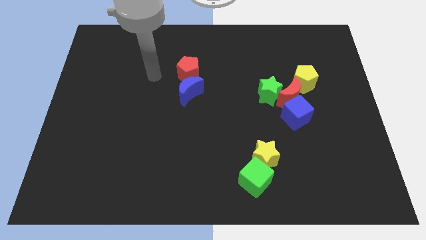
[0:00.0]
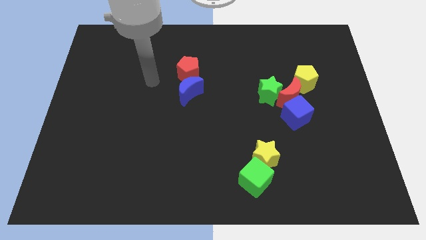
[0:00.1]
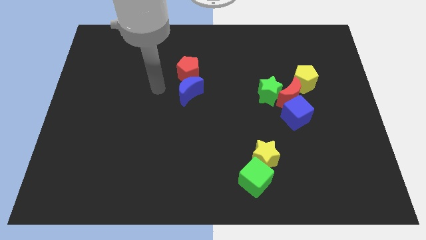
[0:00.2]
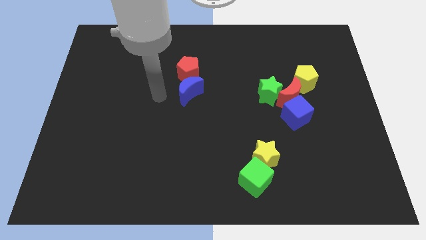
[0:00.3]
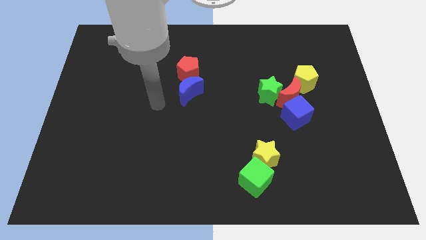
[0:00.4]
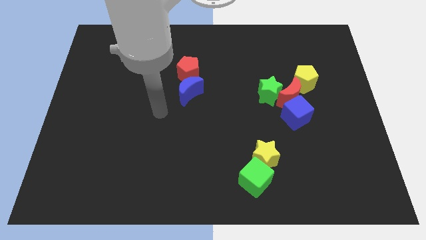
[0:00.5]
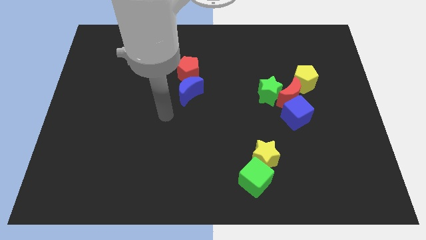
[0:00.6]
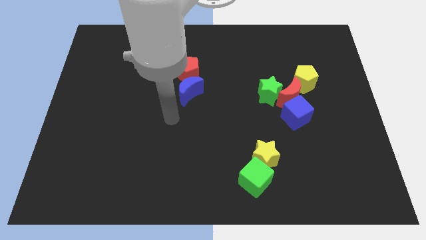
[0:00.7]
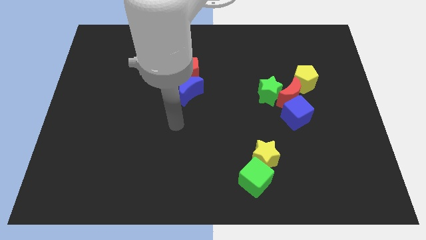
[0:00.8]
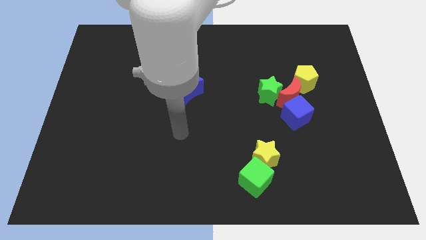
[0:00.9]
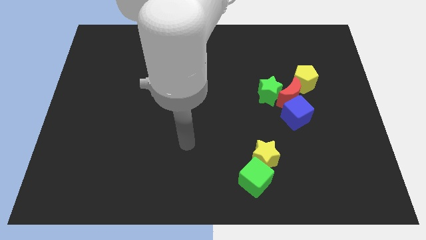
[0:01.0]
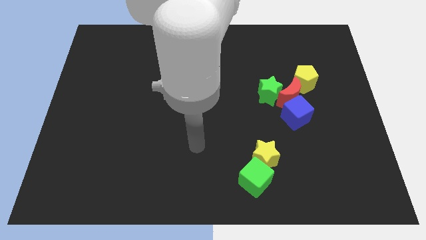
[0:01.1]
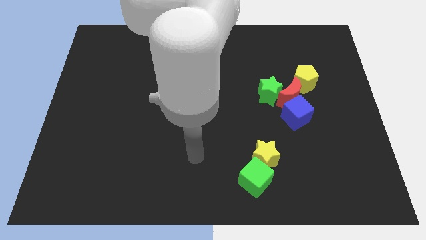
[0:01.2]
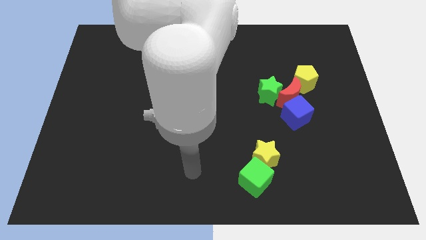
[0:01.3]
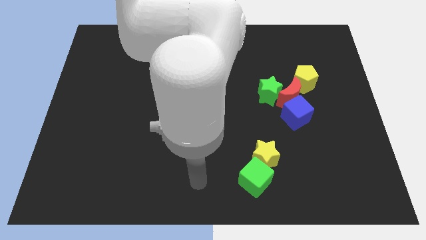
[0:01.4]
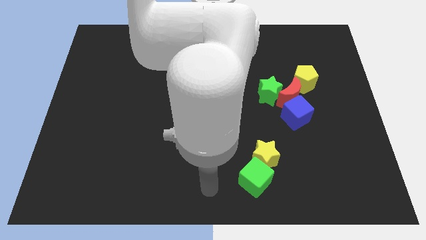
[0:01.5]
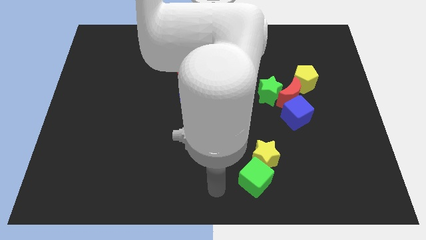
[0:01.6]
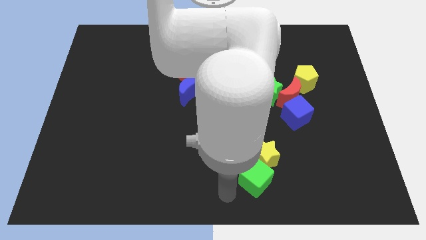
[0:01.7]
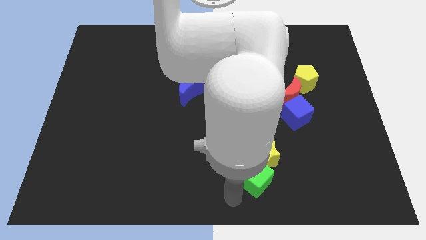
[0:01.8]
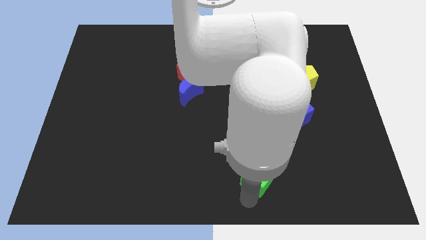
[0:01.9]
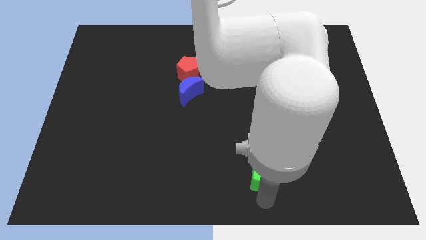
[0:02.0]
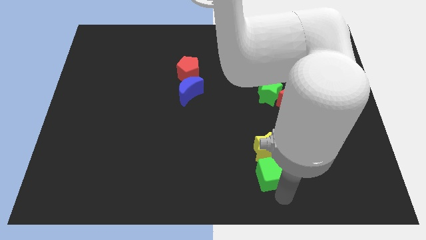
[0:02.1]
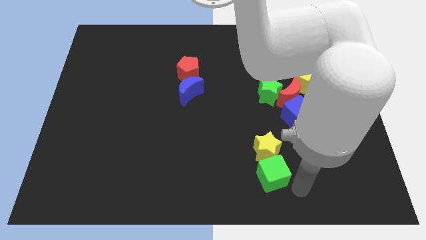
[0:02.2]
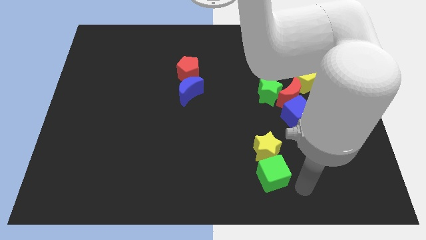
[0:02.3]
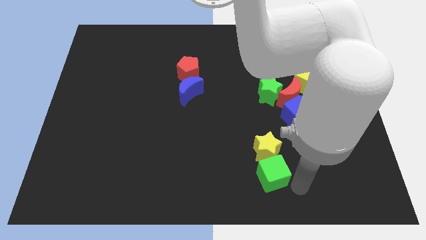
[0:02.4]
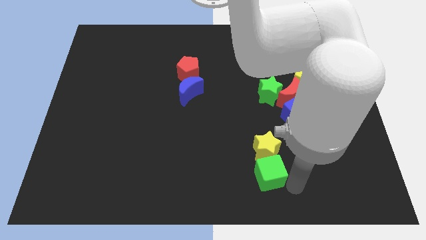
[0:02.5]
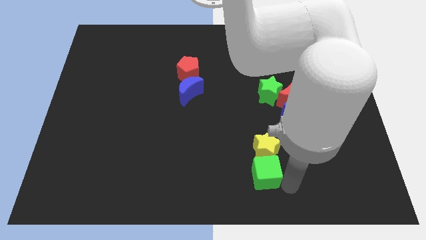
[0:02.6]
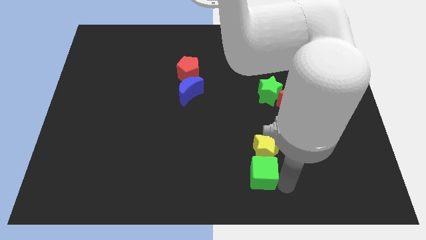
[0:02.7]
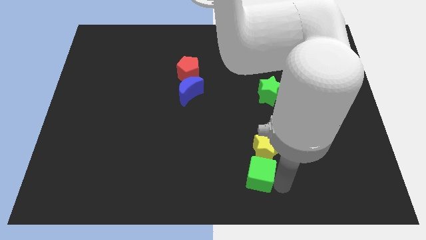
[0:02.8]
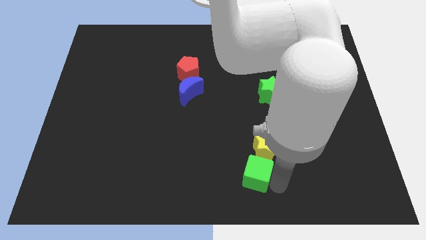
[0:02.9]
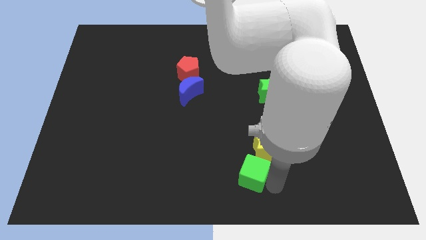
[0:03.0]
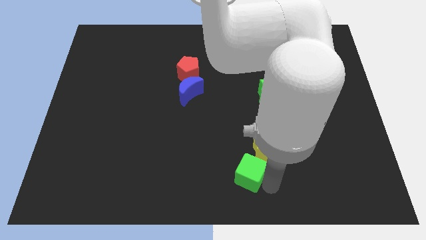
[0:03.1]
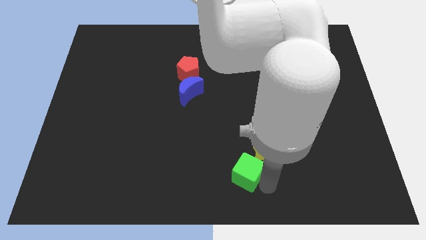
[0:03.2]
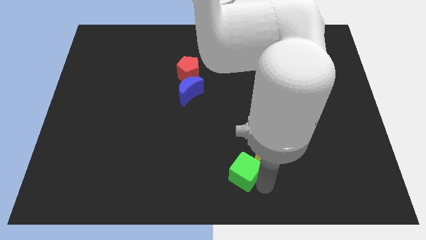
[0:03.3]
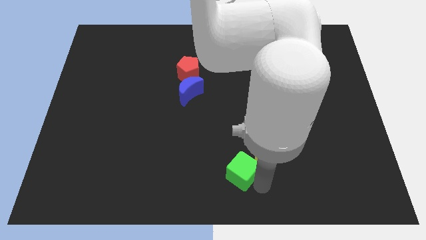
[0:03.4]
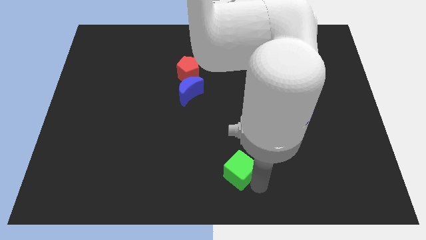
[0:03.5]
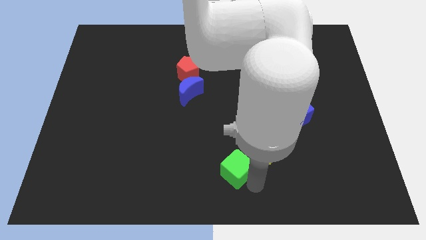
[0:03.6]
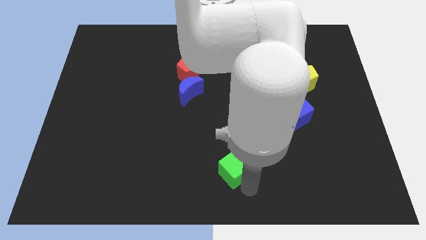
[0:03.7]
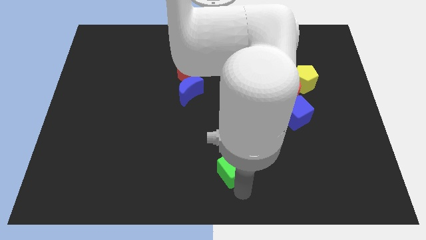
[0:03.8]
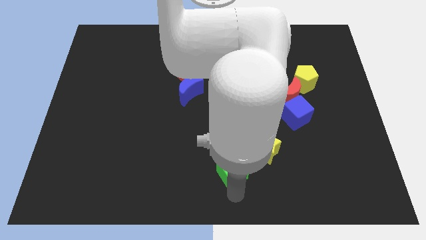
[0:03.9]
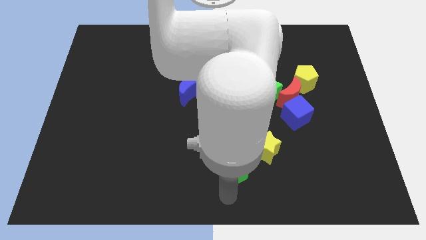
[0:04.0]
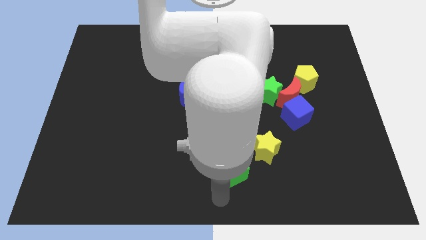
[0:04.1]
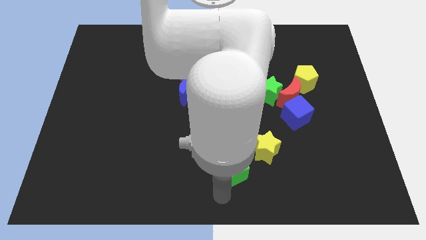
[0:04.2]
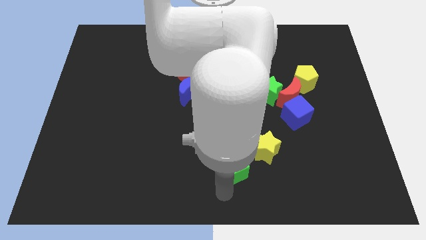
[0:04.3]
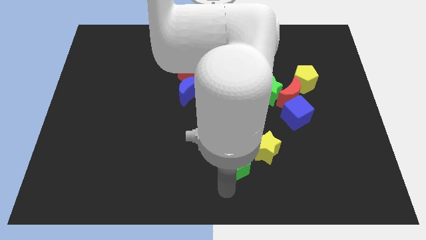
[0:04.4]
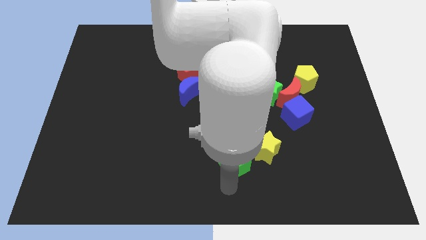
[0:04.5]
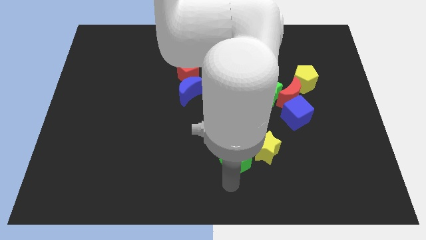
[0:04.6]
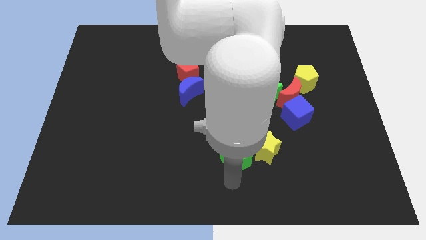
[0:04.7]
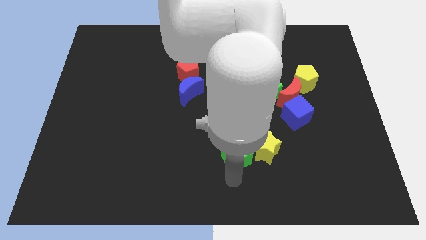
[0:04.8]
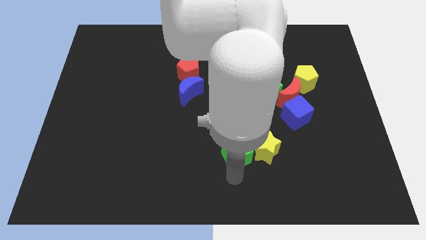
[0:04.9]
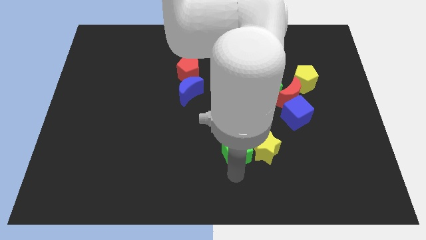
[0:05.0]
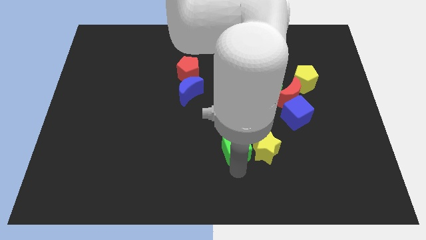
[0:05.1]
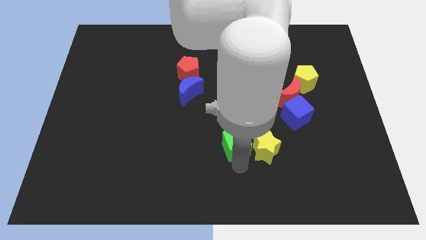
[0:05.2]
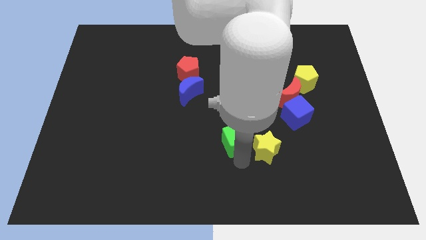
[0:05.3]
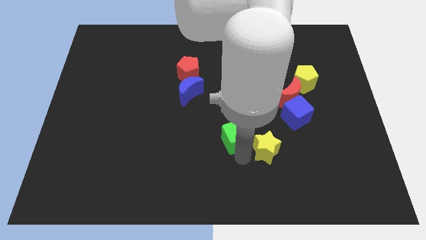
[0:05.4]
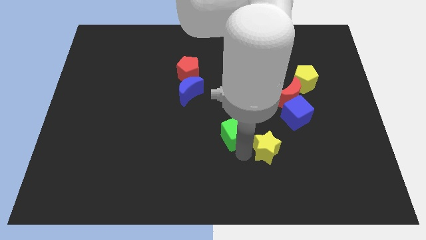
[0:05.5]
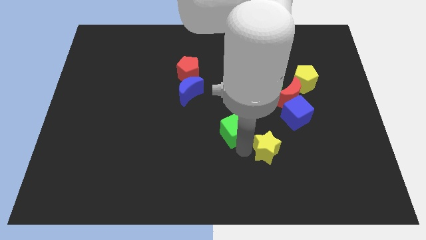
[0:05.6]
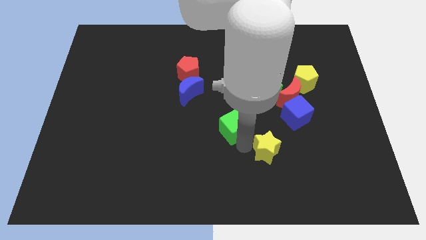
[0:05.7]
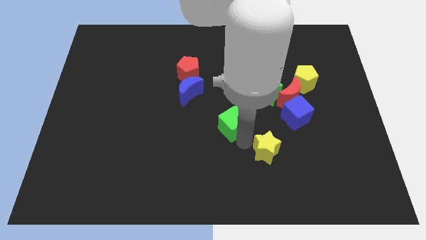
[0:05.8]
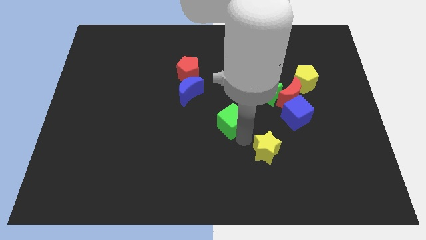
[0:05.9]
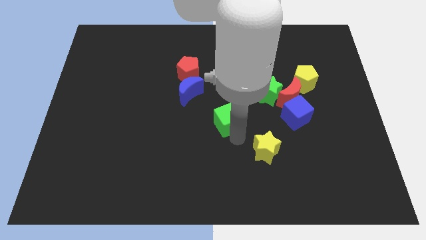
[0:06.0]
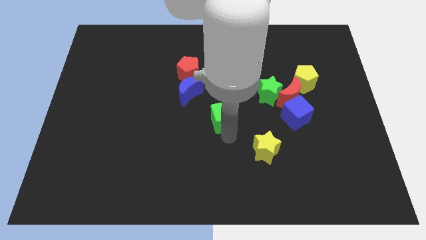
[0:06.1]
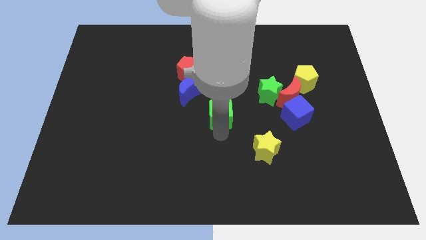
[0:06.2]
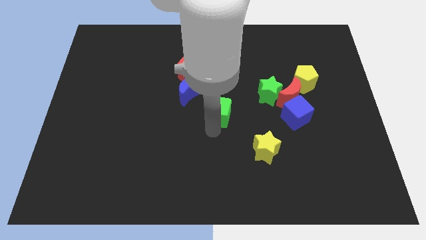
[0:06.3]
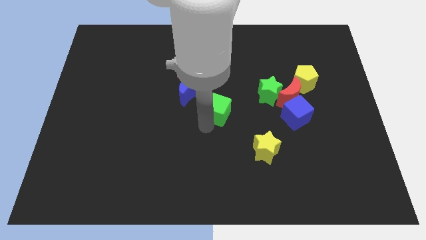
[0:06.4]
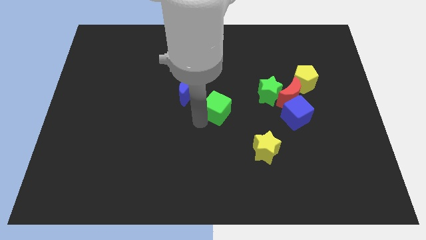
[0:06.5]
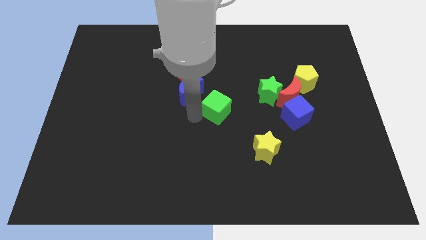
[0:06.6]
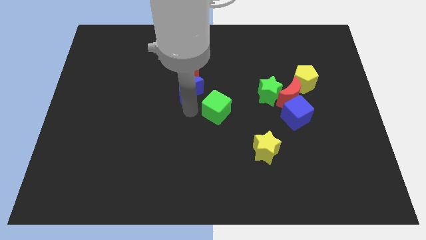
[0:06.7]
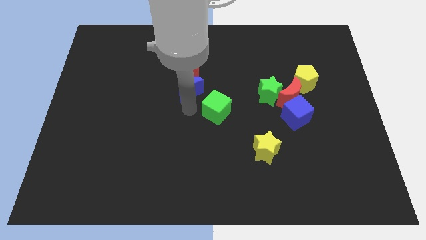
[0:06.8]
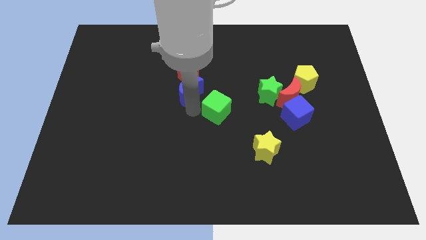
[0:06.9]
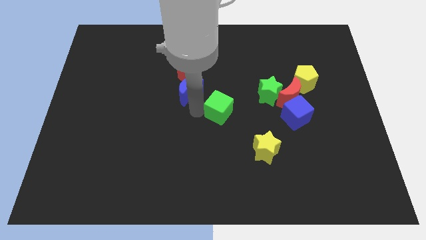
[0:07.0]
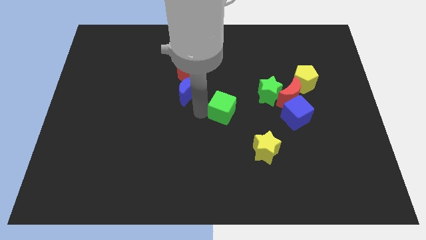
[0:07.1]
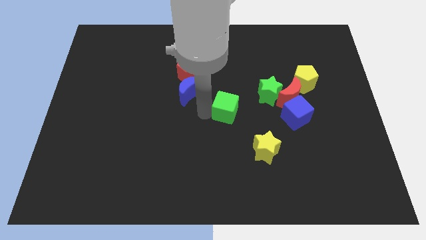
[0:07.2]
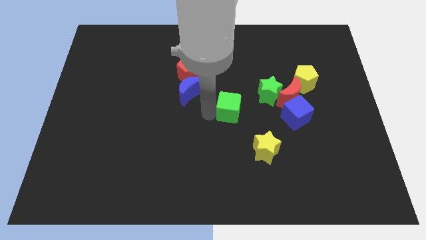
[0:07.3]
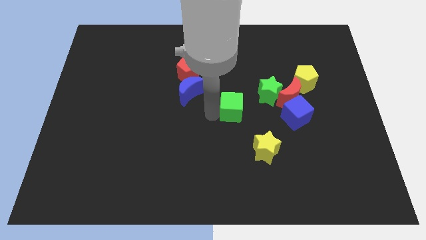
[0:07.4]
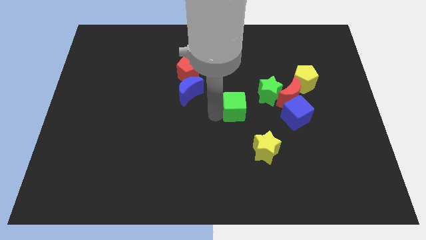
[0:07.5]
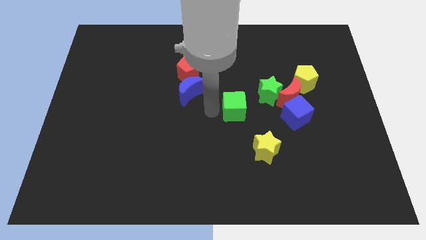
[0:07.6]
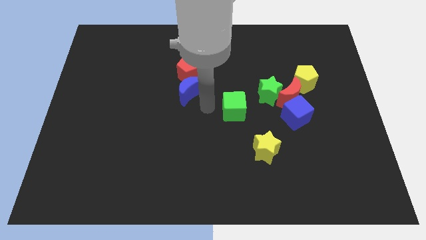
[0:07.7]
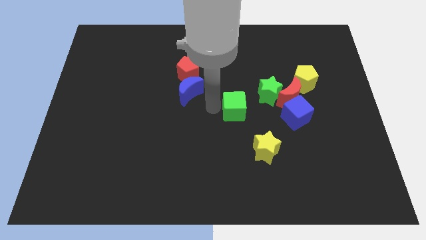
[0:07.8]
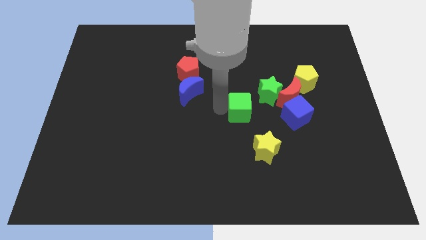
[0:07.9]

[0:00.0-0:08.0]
move the green cube to the top side of the yellow star
